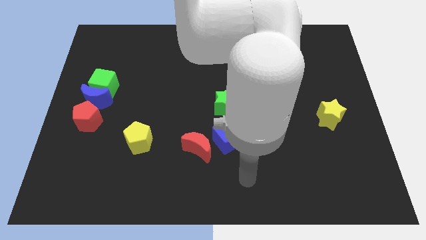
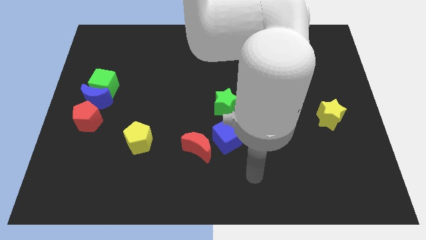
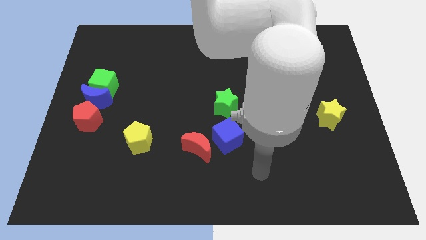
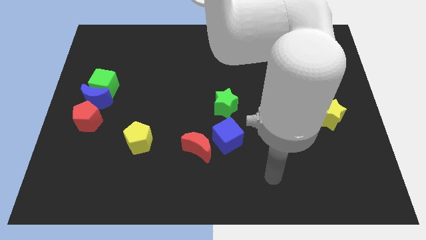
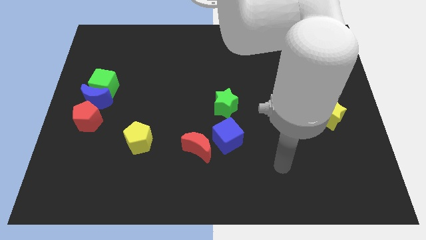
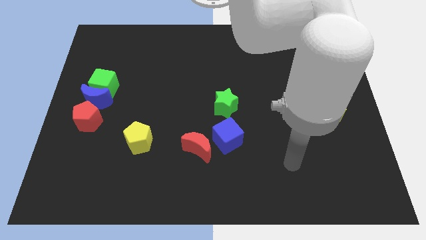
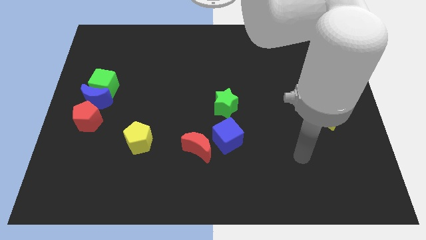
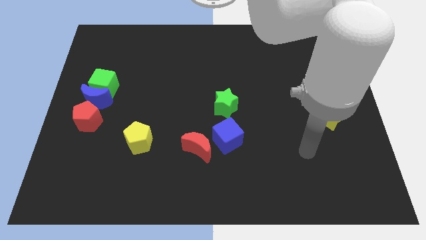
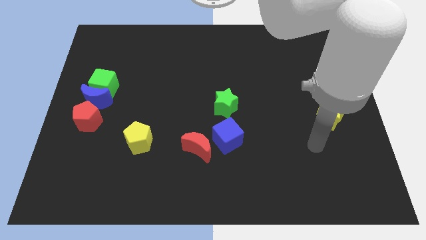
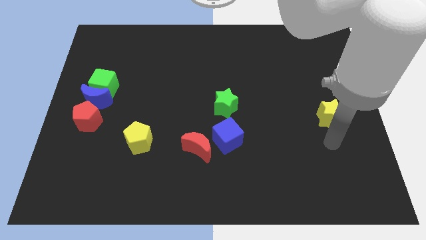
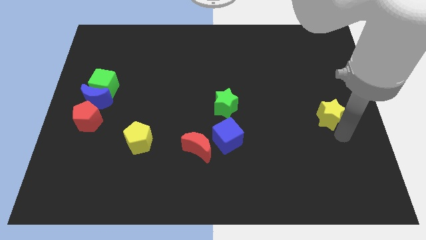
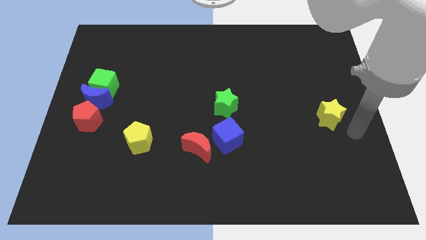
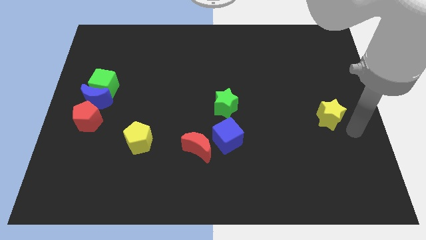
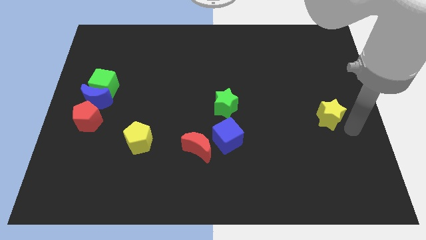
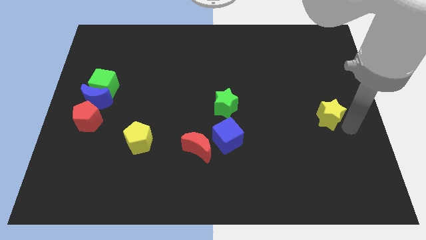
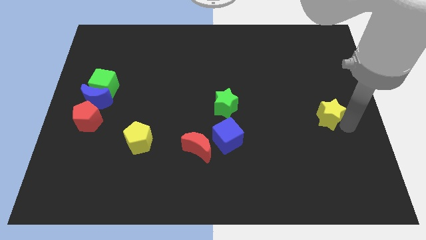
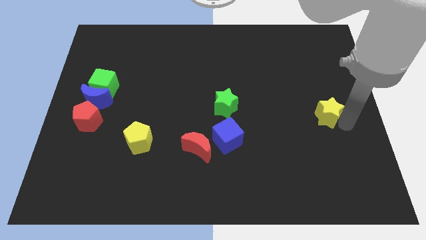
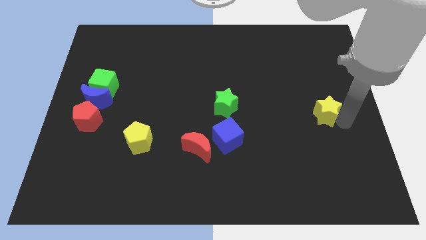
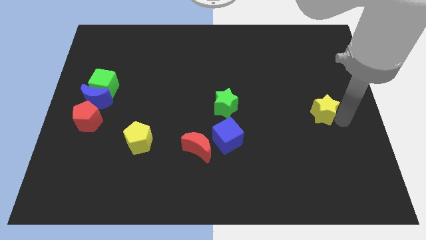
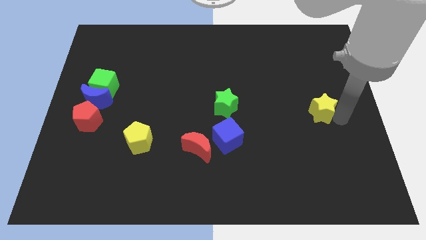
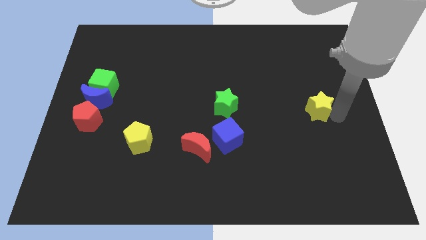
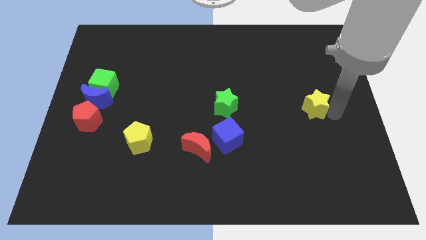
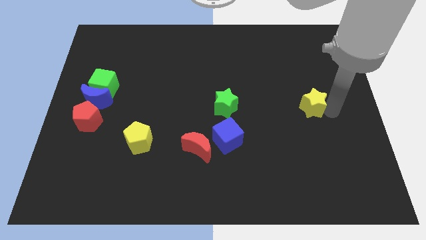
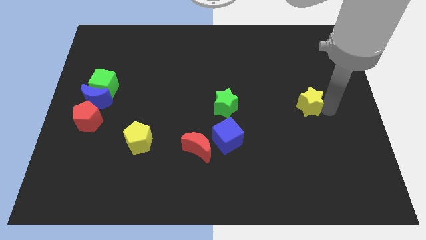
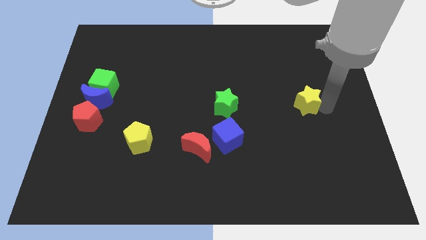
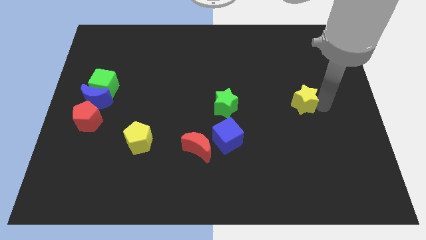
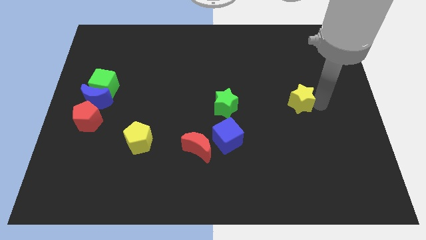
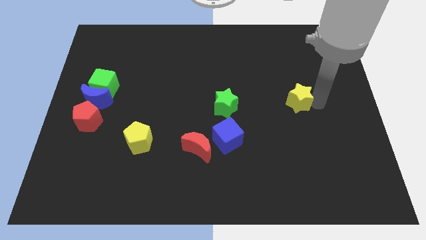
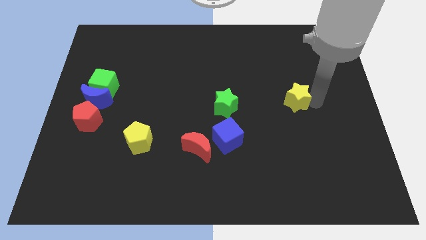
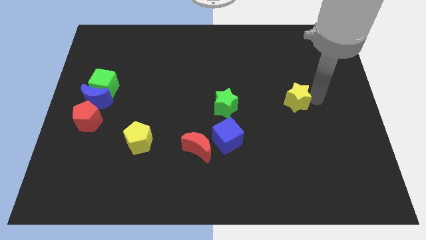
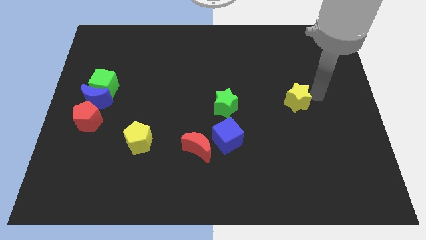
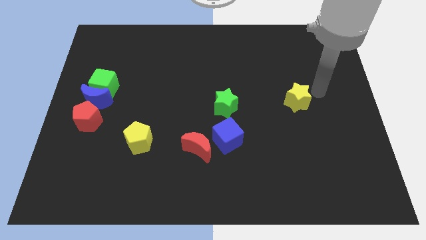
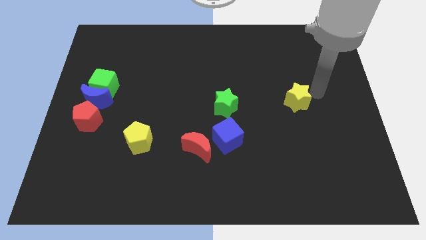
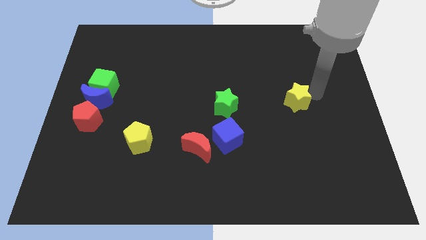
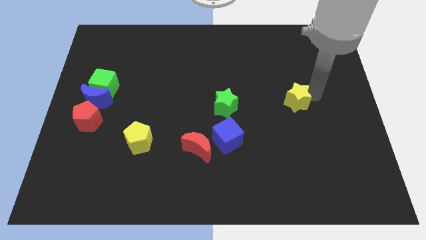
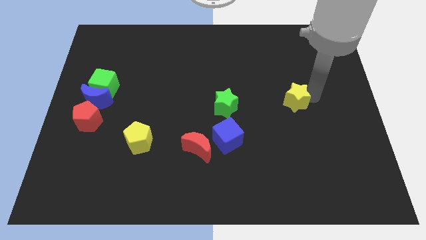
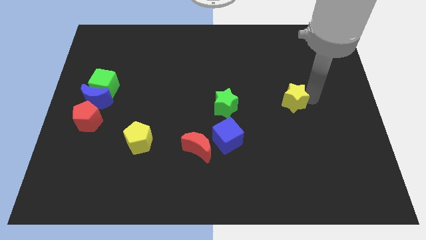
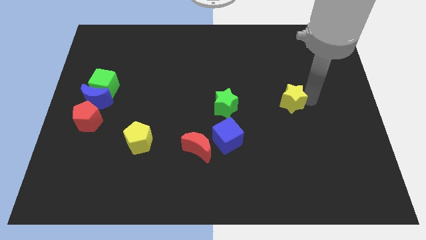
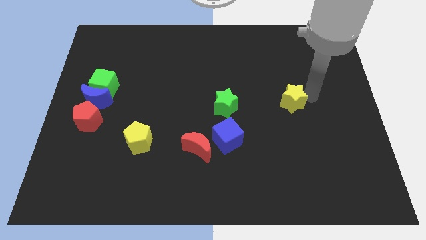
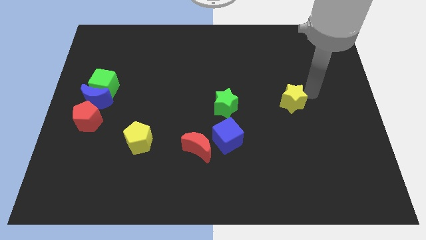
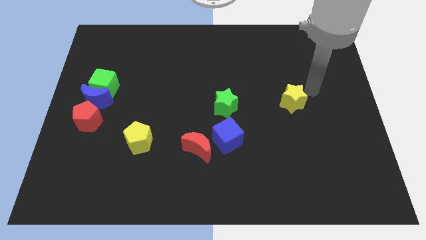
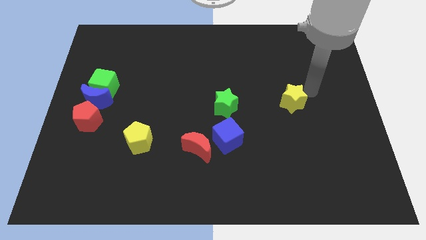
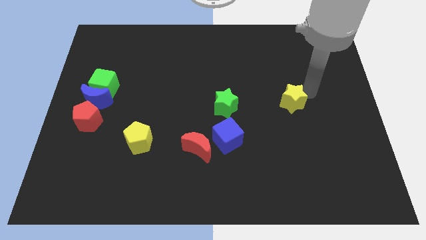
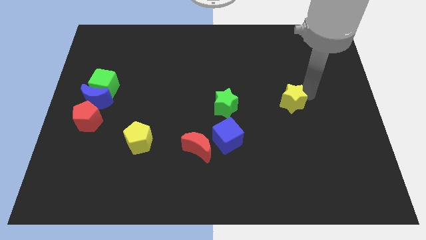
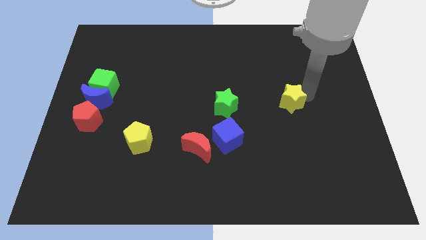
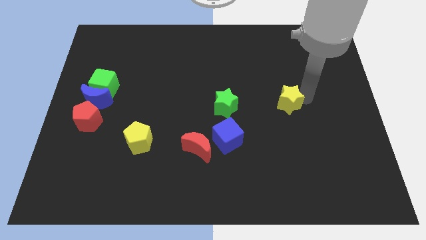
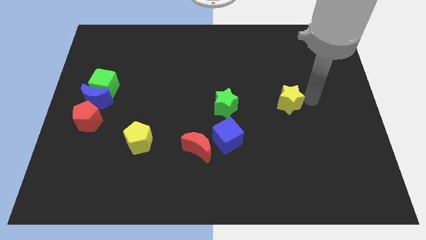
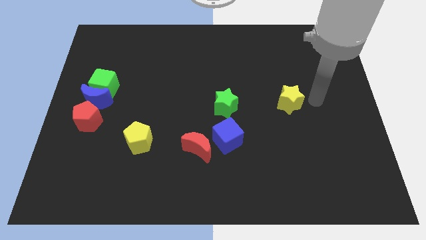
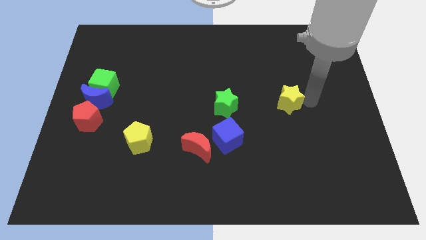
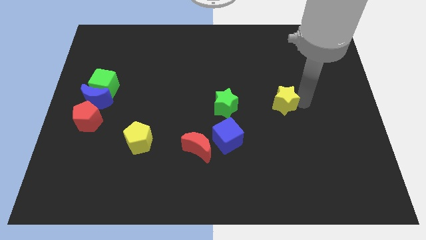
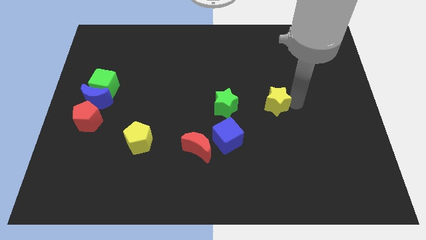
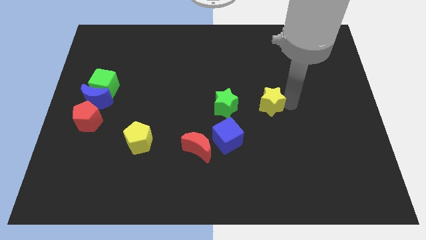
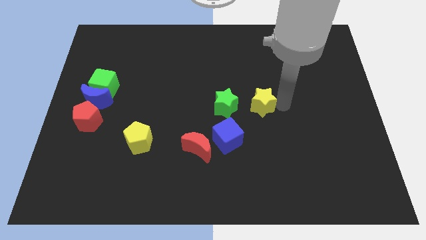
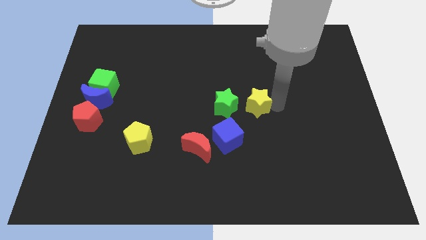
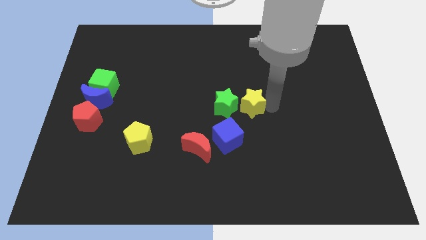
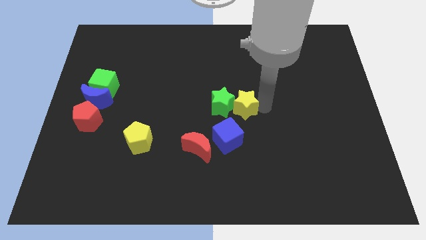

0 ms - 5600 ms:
put the yellow star close to the green star

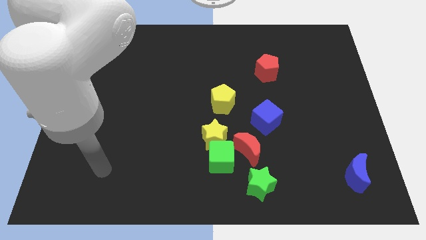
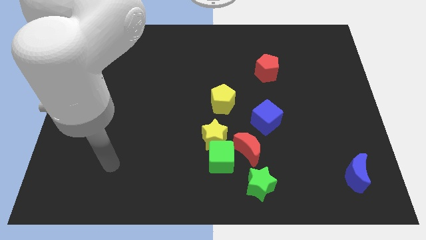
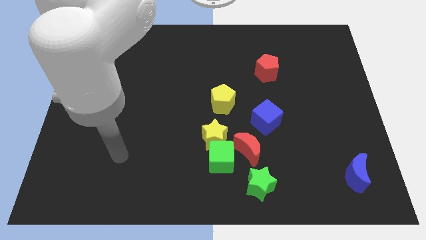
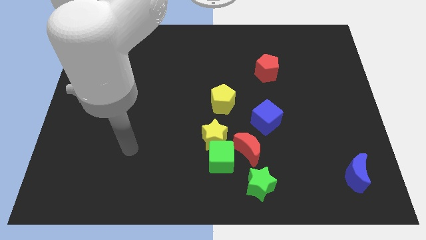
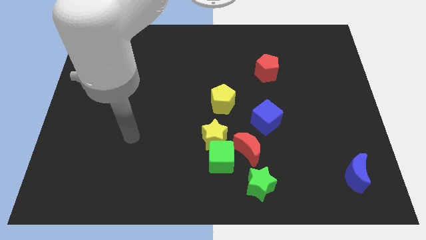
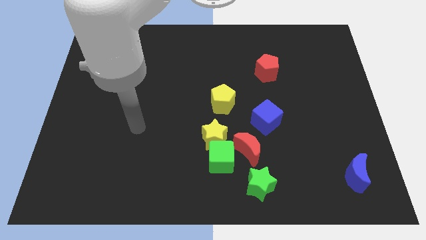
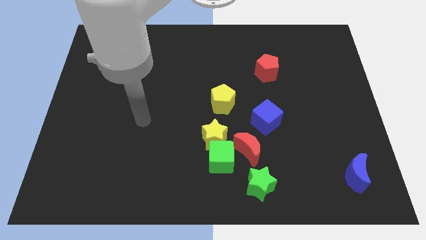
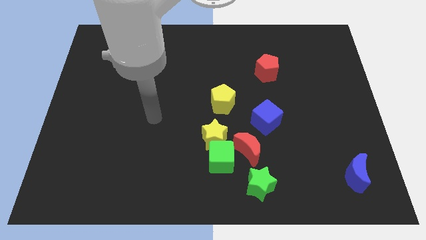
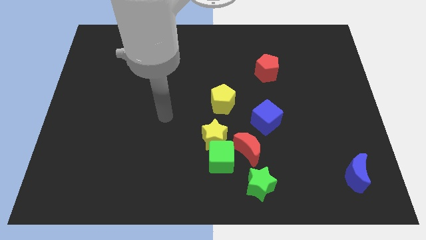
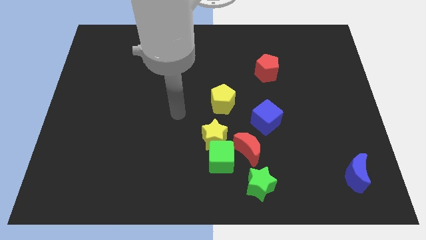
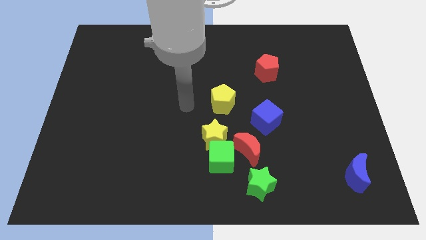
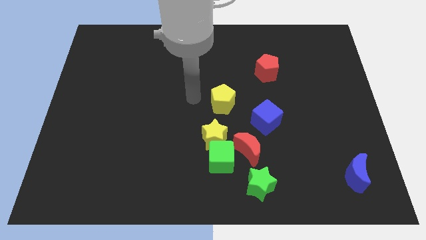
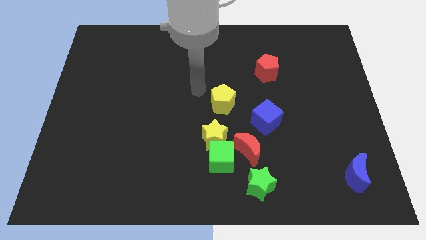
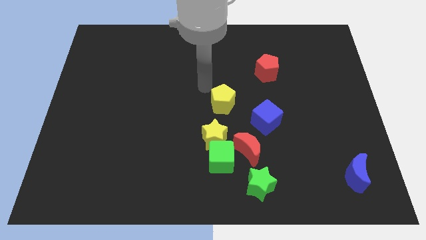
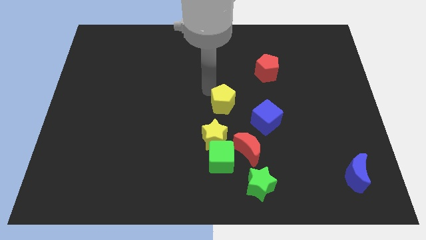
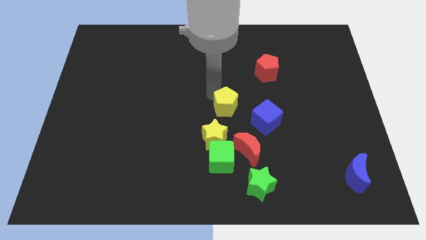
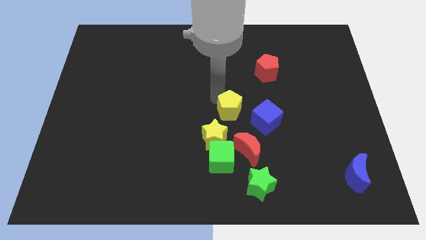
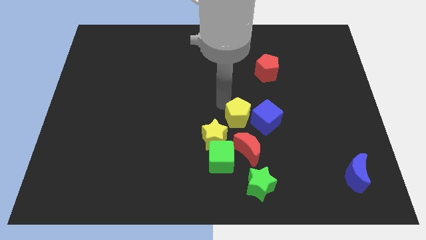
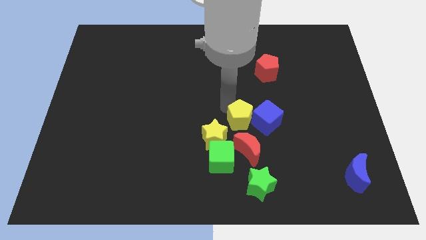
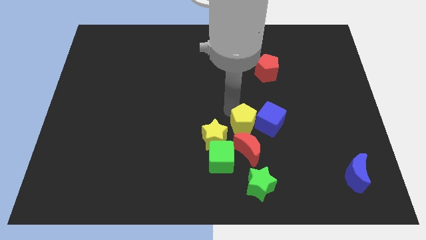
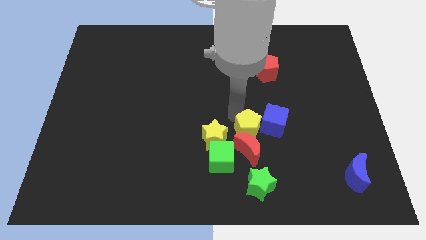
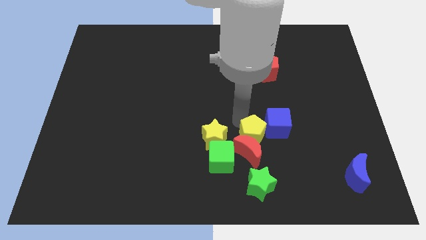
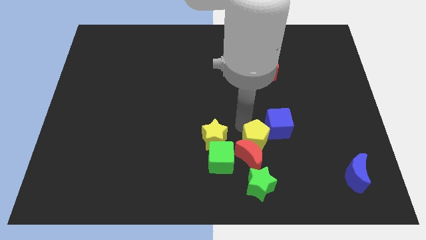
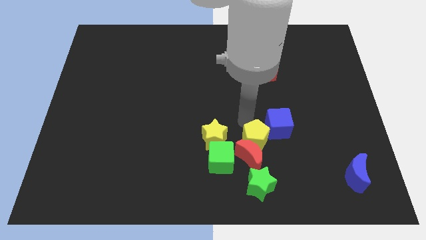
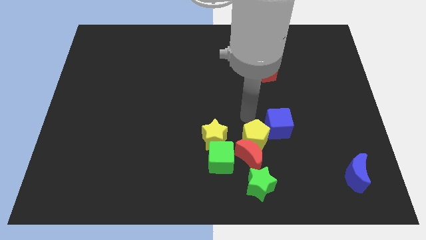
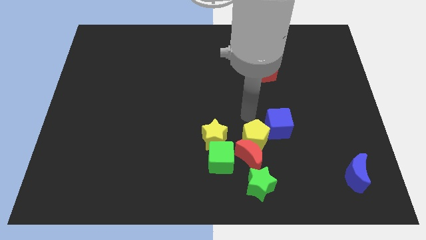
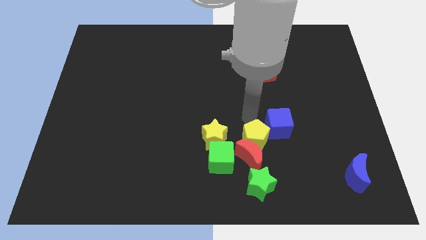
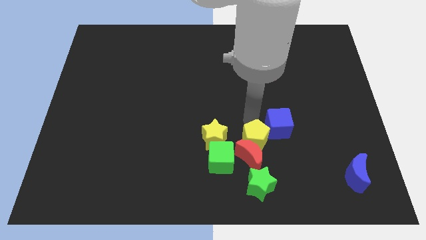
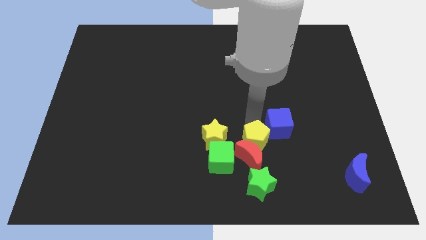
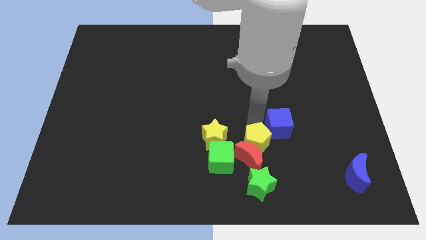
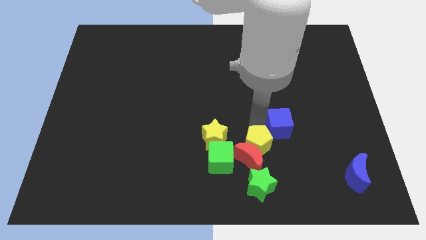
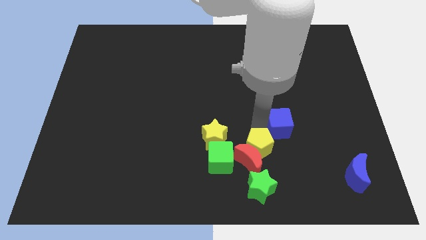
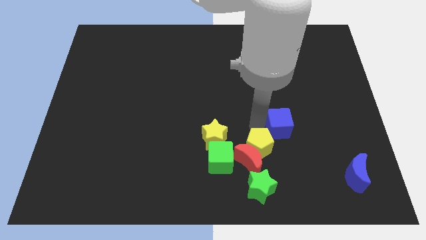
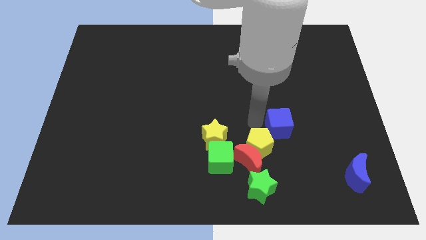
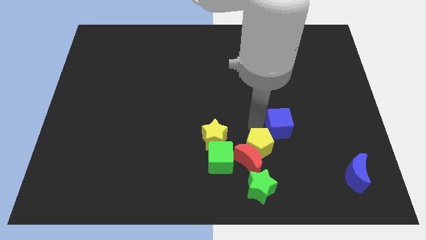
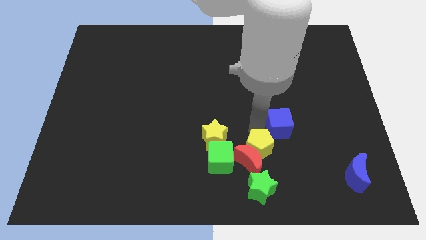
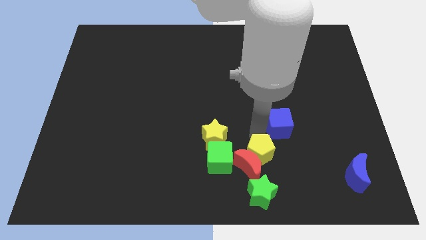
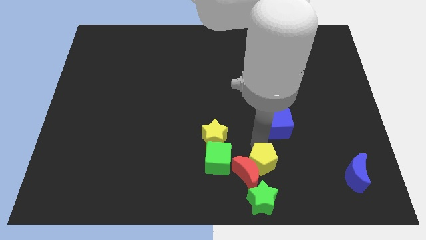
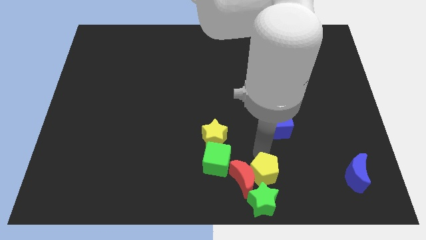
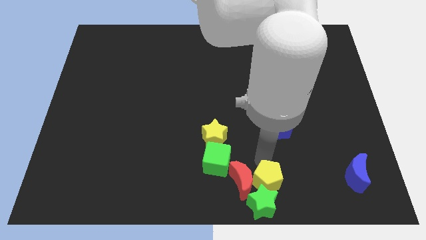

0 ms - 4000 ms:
push the yellow pentagon next to the green star
